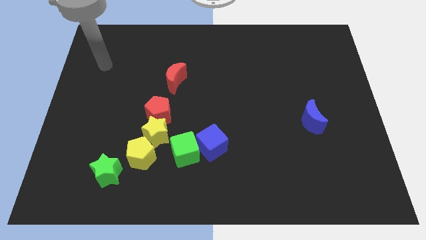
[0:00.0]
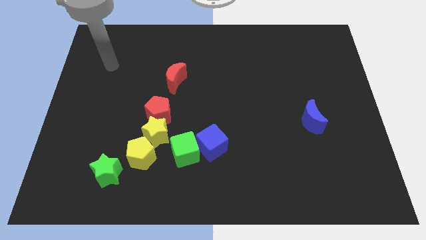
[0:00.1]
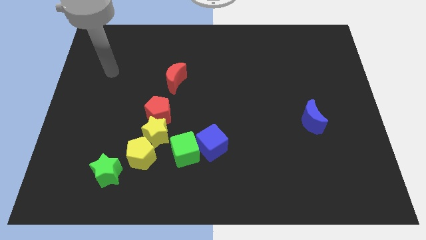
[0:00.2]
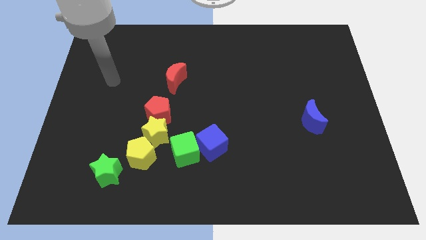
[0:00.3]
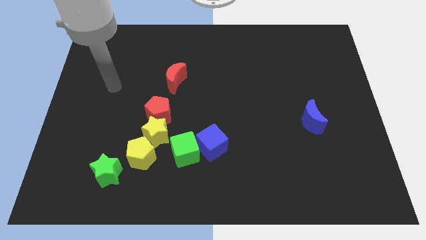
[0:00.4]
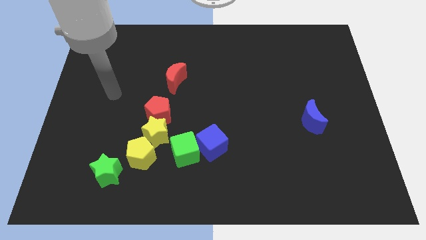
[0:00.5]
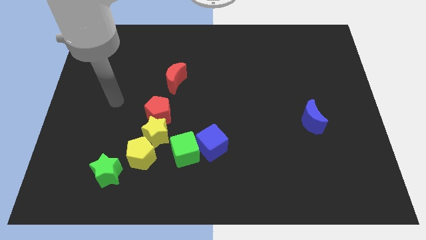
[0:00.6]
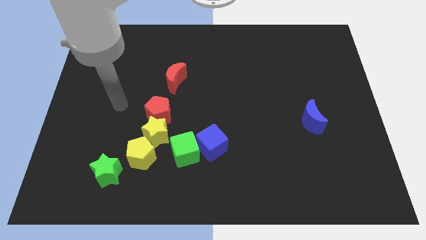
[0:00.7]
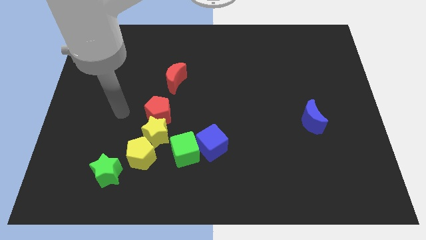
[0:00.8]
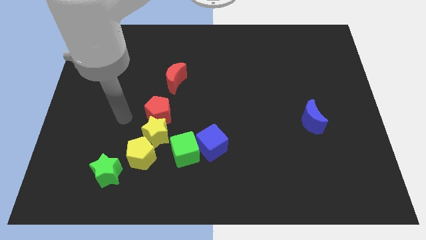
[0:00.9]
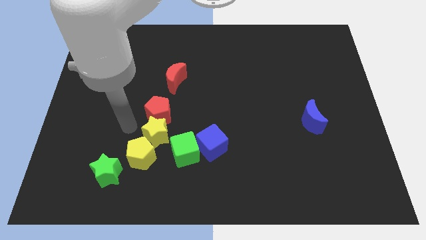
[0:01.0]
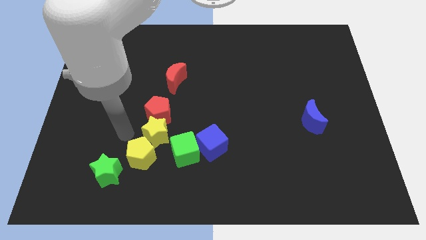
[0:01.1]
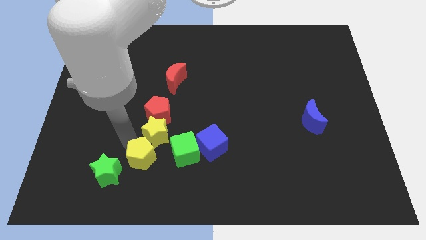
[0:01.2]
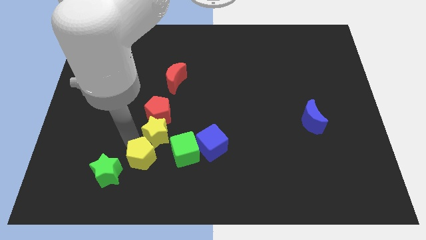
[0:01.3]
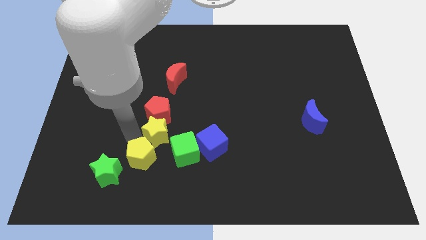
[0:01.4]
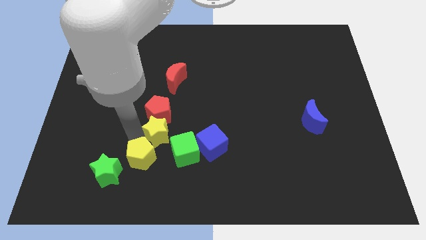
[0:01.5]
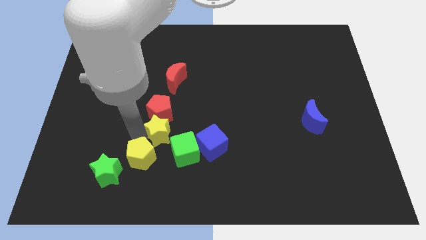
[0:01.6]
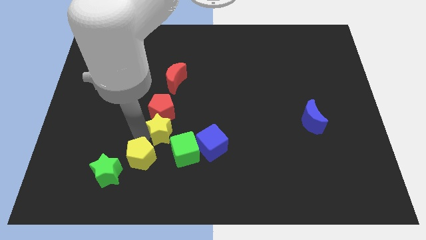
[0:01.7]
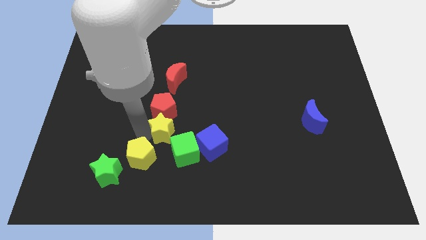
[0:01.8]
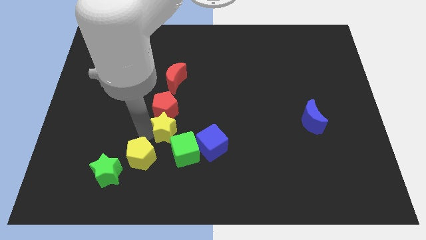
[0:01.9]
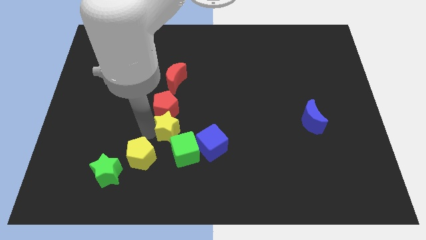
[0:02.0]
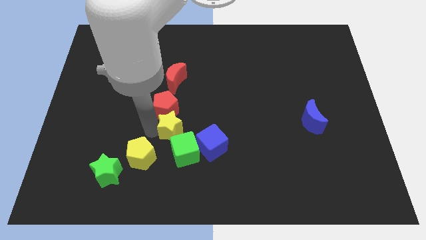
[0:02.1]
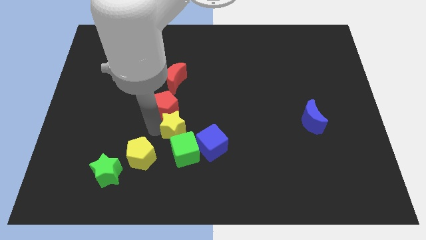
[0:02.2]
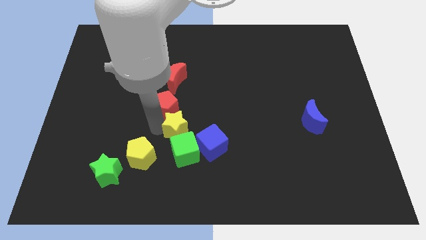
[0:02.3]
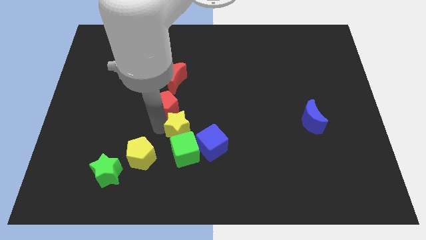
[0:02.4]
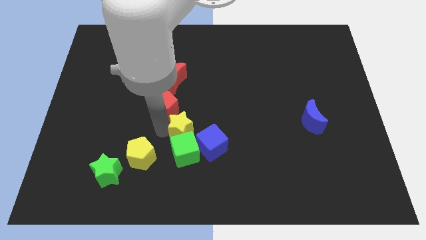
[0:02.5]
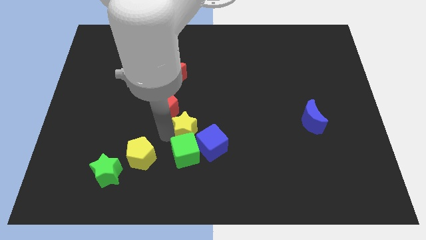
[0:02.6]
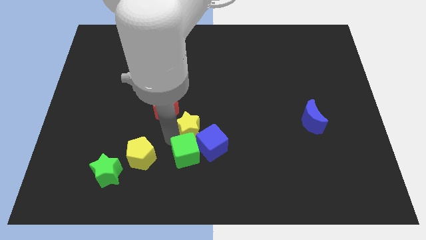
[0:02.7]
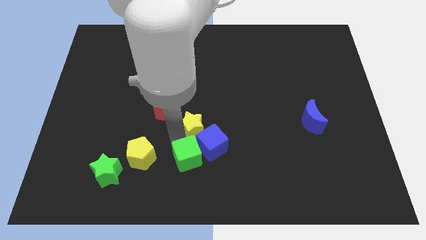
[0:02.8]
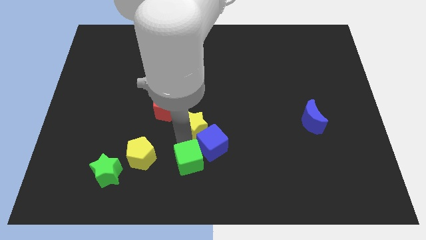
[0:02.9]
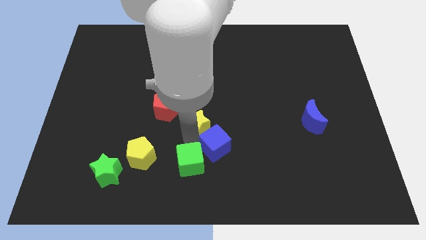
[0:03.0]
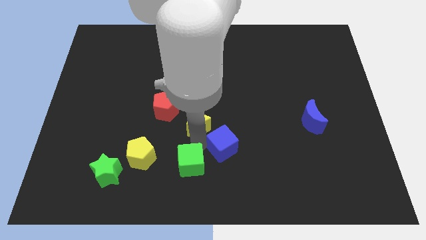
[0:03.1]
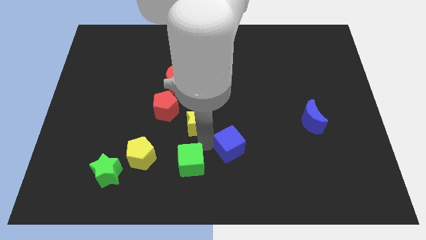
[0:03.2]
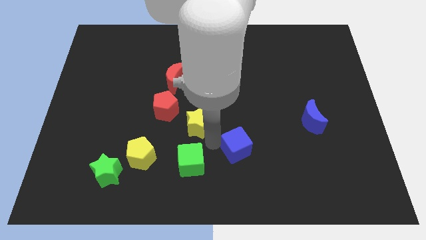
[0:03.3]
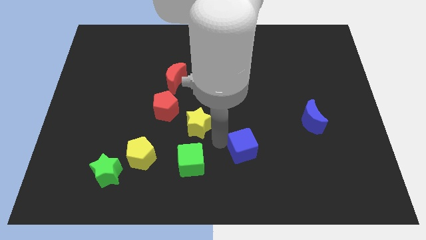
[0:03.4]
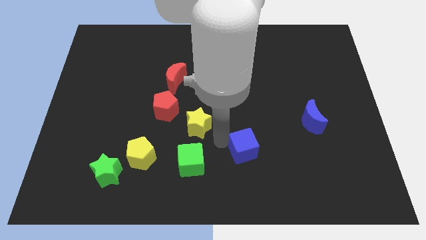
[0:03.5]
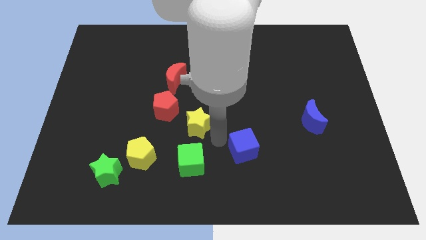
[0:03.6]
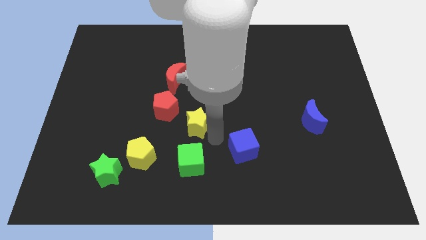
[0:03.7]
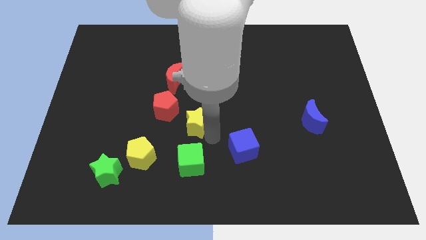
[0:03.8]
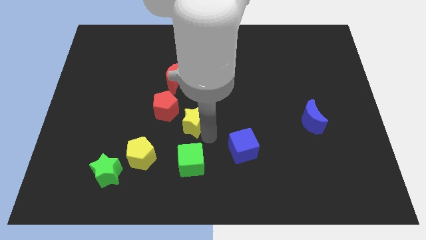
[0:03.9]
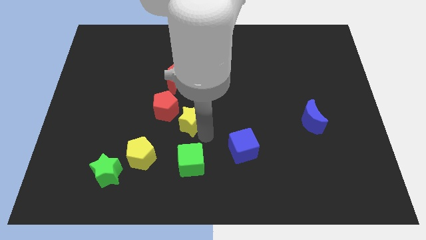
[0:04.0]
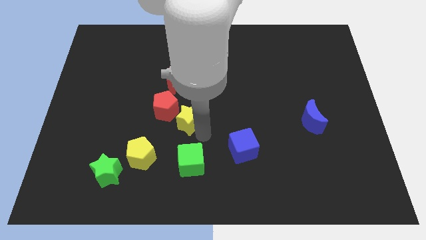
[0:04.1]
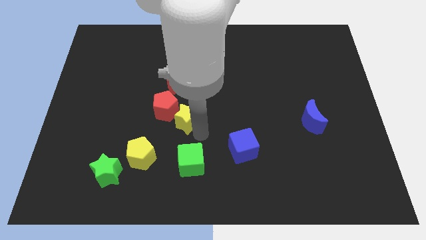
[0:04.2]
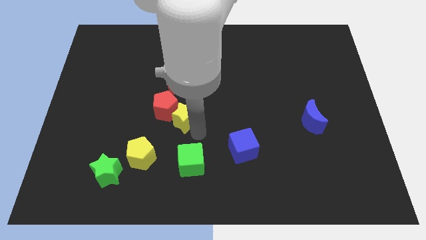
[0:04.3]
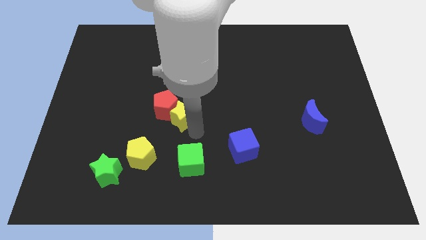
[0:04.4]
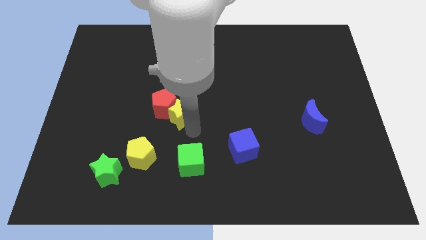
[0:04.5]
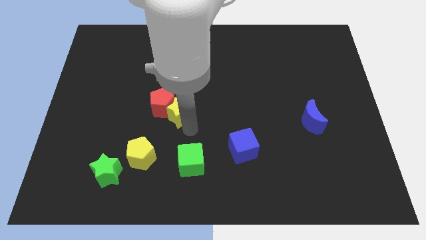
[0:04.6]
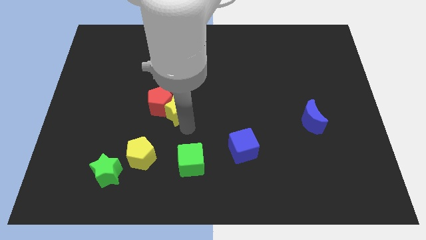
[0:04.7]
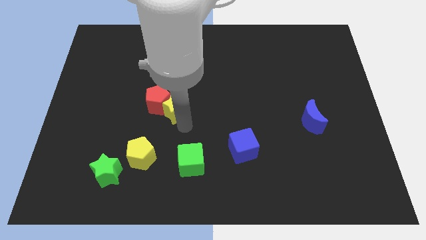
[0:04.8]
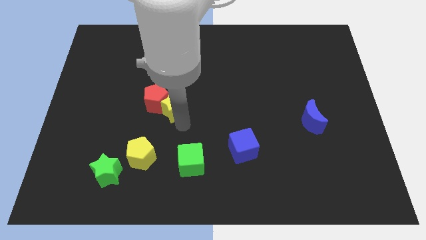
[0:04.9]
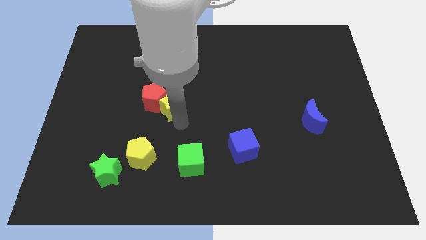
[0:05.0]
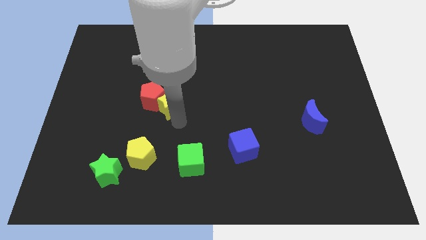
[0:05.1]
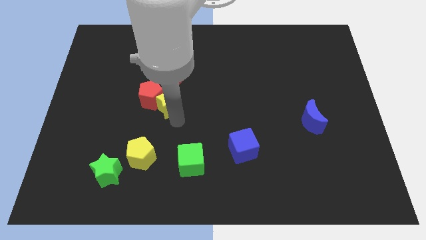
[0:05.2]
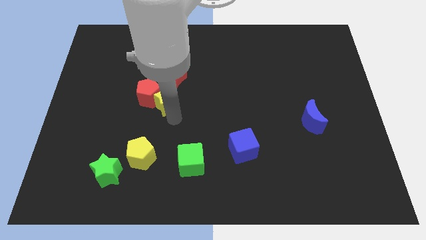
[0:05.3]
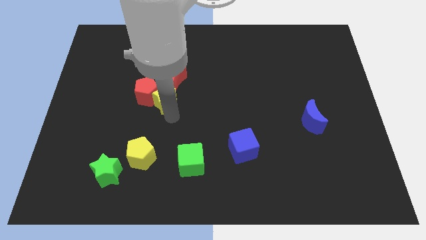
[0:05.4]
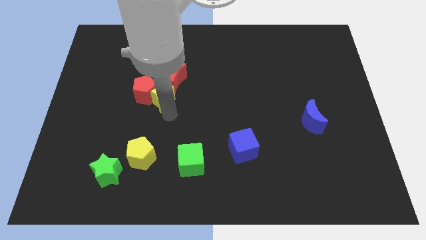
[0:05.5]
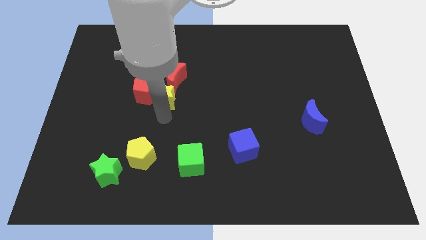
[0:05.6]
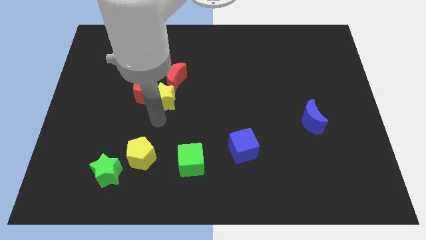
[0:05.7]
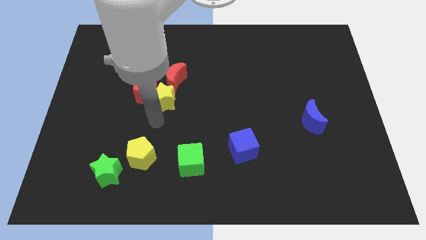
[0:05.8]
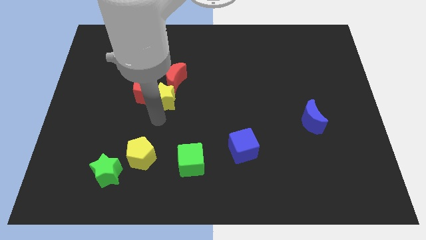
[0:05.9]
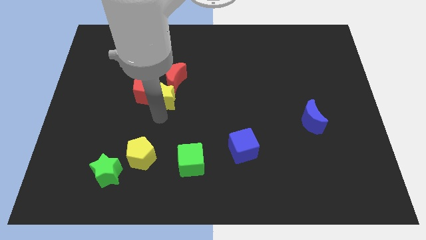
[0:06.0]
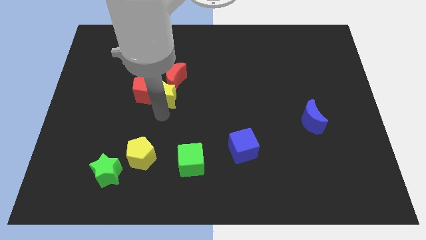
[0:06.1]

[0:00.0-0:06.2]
push the yellow star towards the red moon

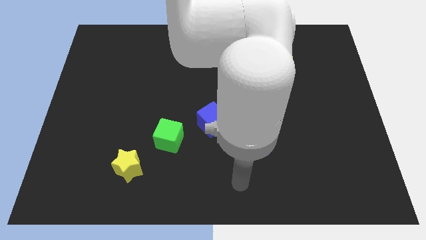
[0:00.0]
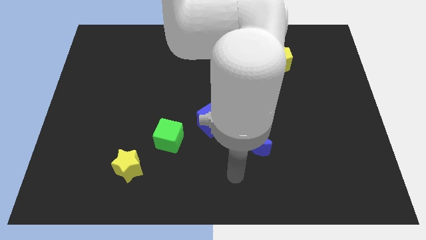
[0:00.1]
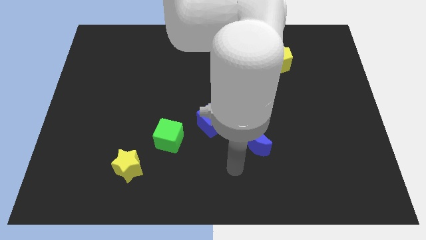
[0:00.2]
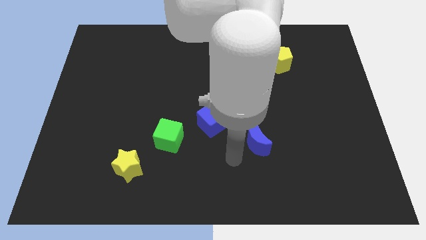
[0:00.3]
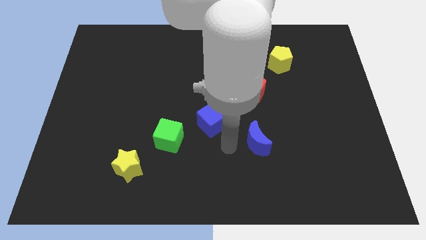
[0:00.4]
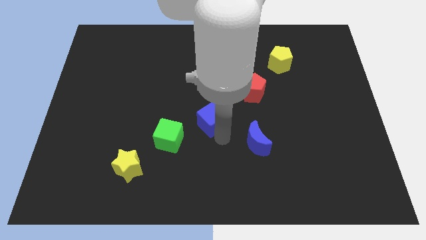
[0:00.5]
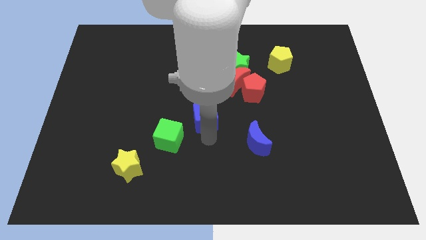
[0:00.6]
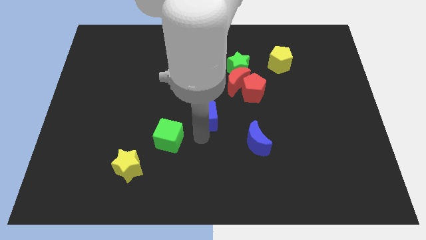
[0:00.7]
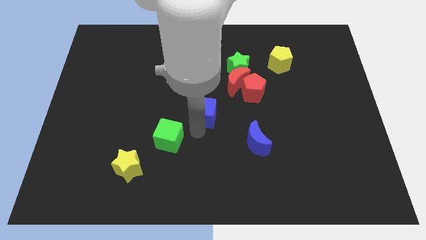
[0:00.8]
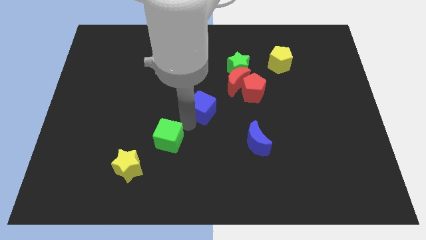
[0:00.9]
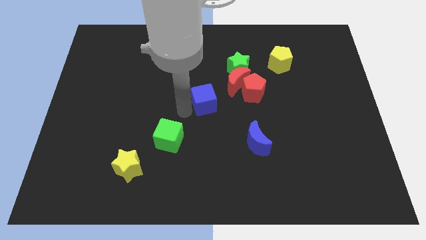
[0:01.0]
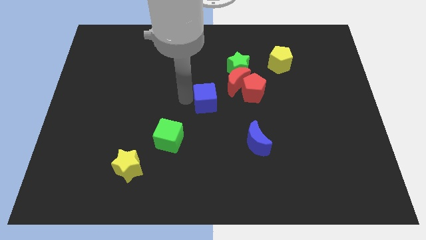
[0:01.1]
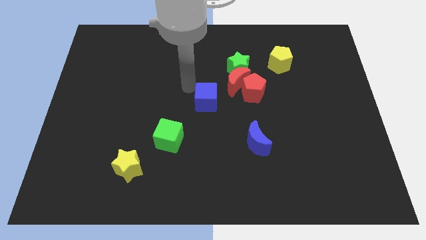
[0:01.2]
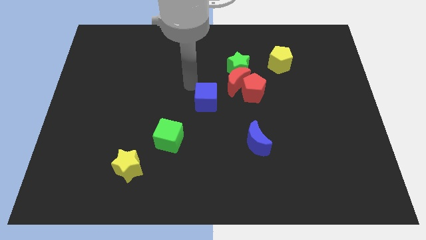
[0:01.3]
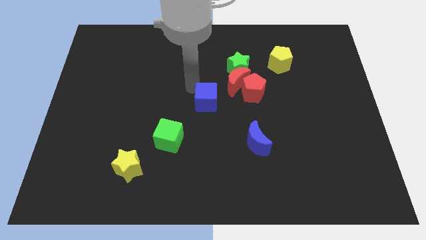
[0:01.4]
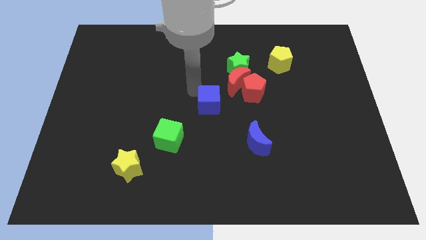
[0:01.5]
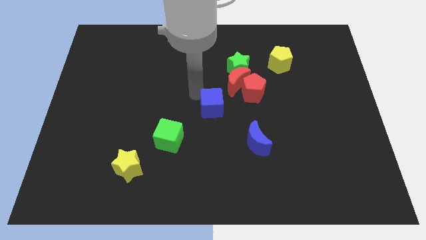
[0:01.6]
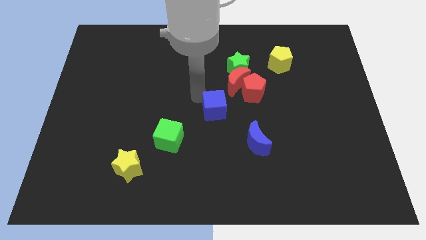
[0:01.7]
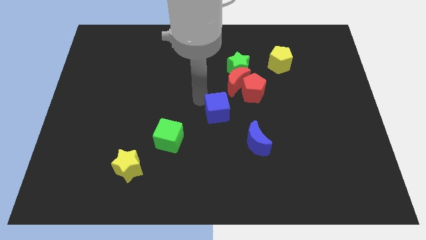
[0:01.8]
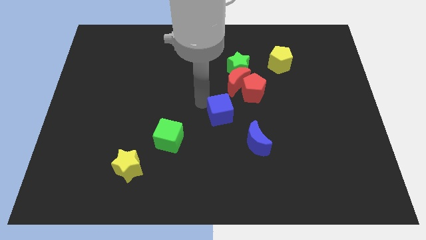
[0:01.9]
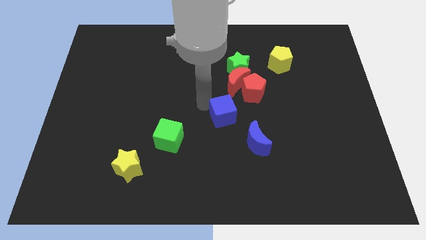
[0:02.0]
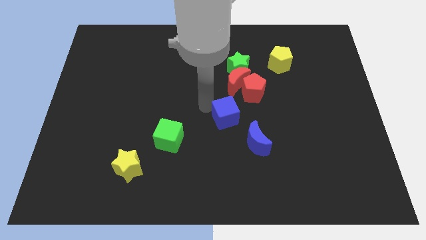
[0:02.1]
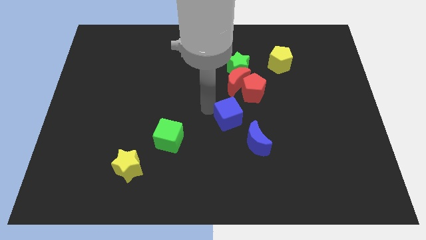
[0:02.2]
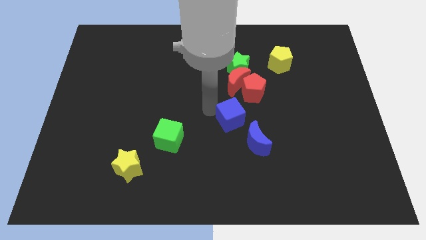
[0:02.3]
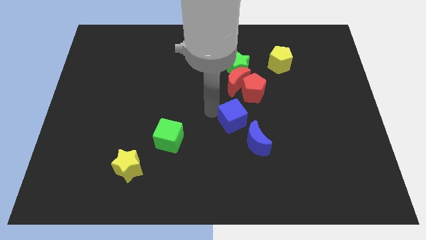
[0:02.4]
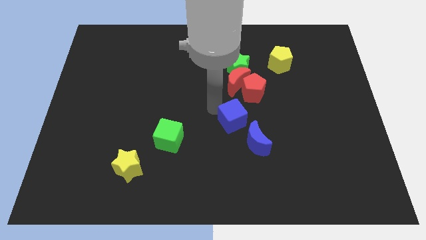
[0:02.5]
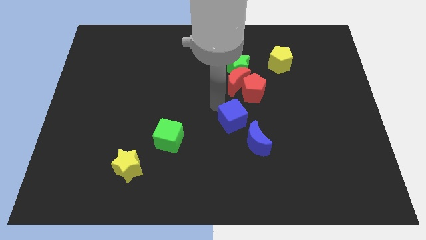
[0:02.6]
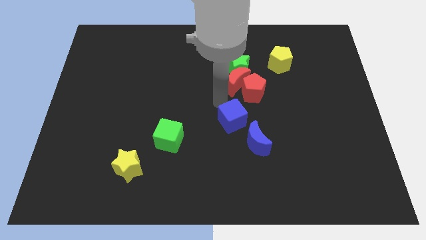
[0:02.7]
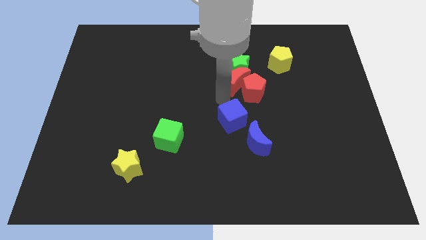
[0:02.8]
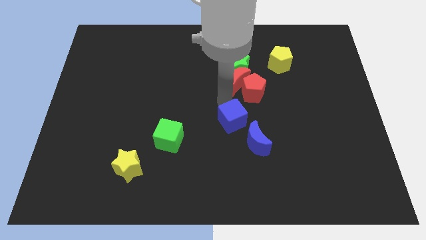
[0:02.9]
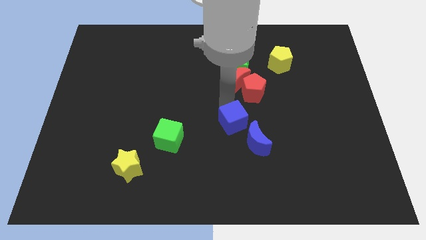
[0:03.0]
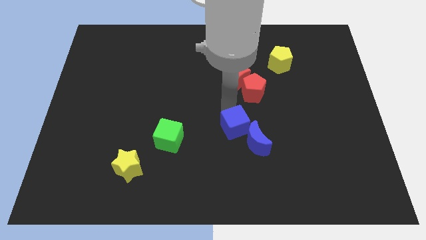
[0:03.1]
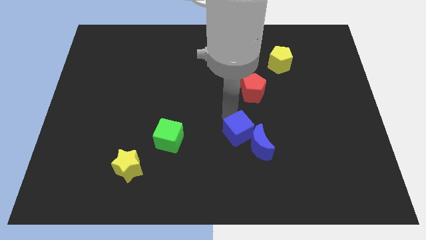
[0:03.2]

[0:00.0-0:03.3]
push the blue cube next to the blue moon
